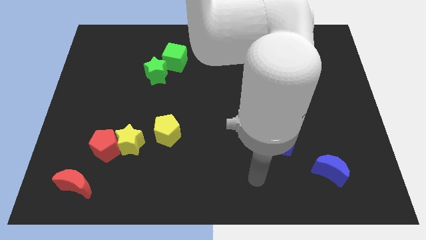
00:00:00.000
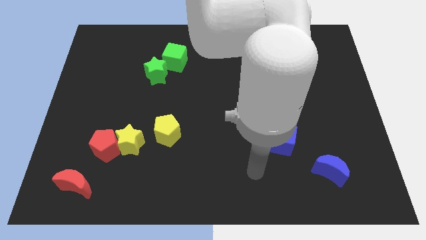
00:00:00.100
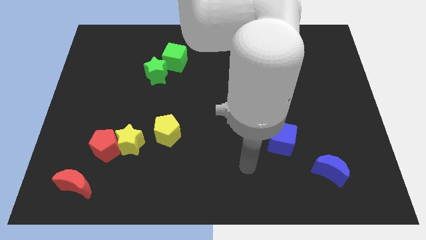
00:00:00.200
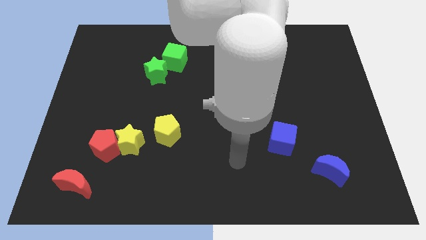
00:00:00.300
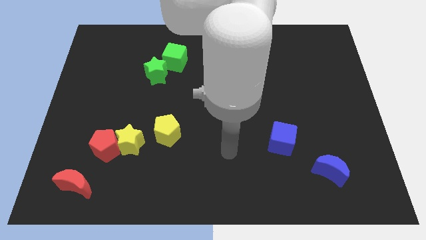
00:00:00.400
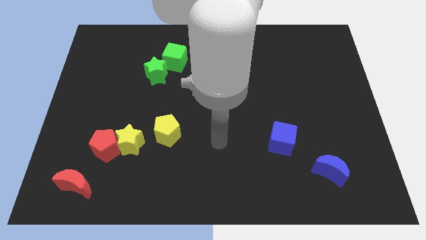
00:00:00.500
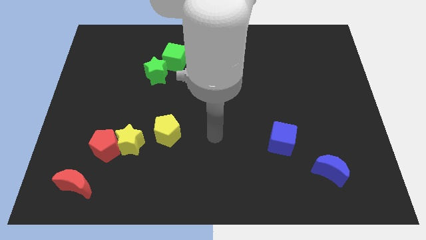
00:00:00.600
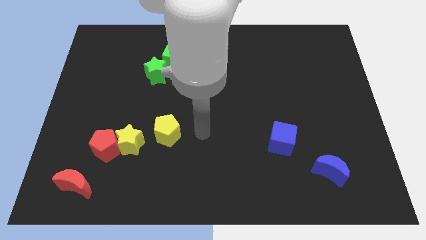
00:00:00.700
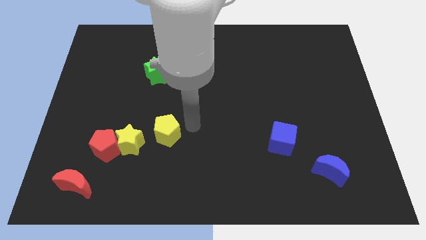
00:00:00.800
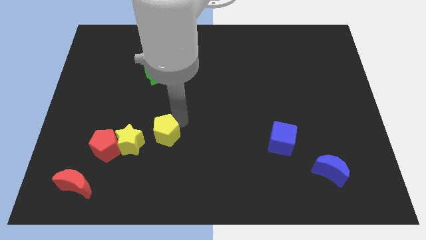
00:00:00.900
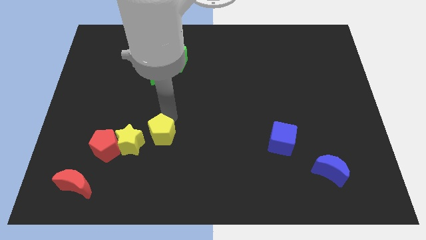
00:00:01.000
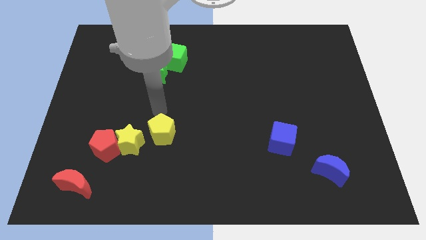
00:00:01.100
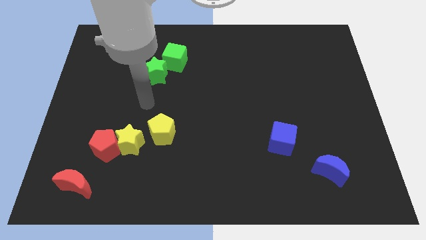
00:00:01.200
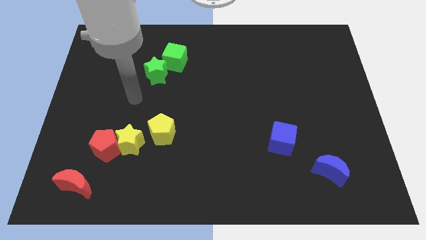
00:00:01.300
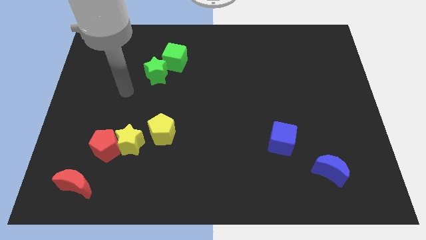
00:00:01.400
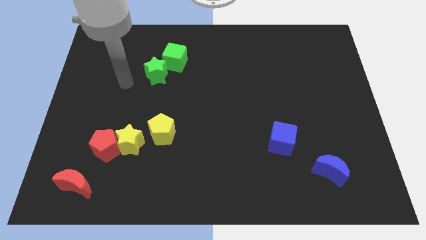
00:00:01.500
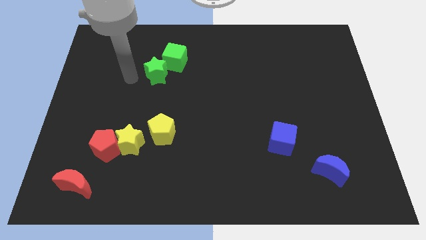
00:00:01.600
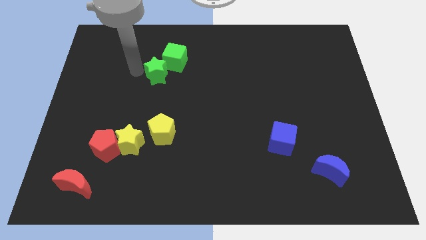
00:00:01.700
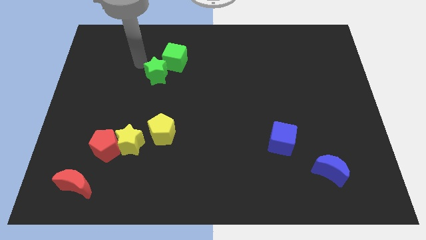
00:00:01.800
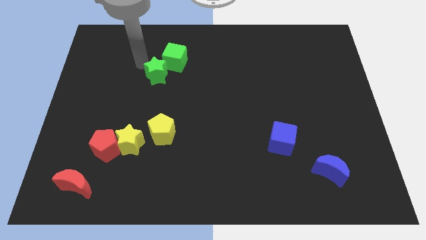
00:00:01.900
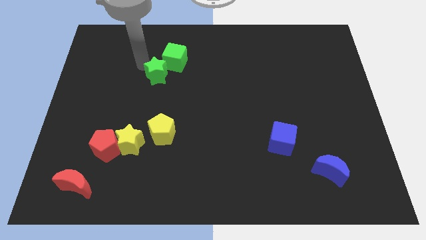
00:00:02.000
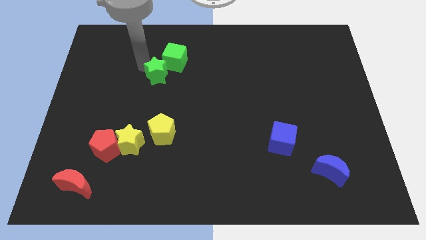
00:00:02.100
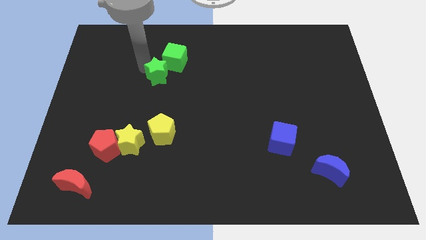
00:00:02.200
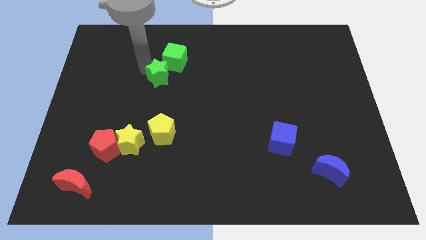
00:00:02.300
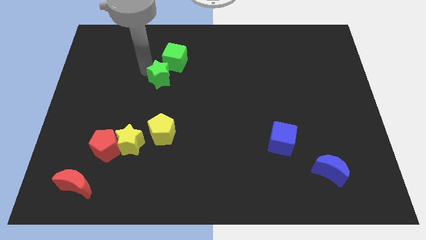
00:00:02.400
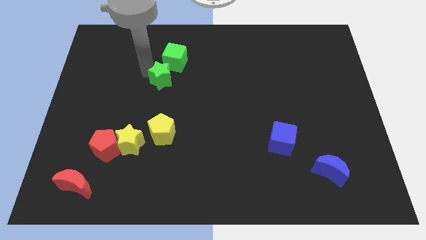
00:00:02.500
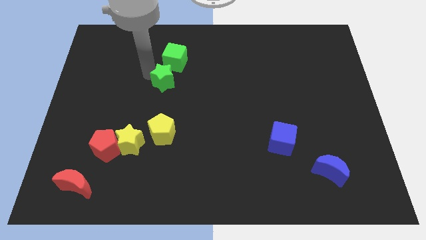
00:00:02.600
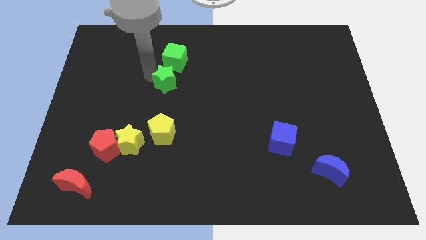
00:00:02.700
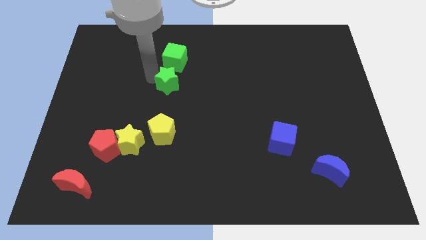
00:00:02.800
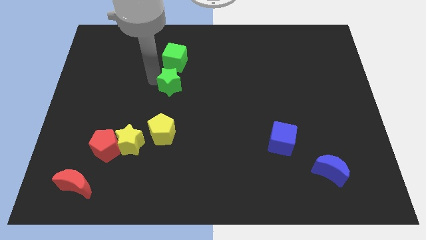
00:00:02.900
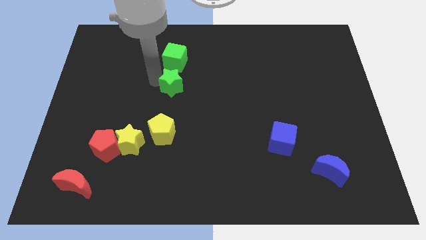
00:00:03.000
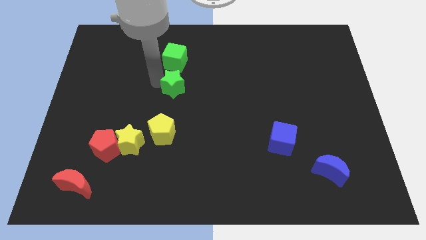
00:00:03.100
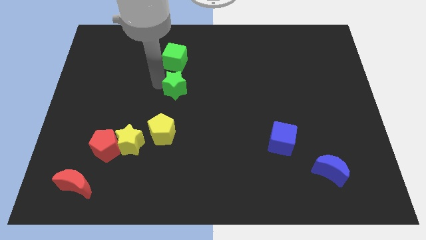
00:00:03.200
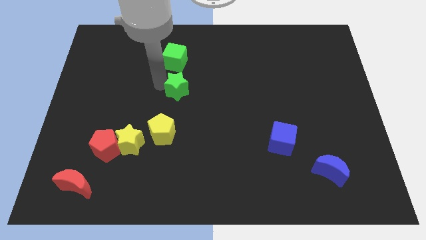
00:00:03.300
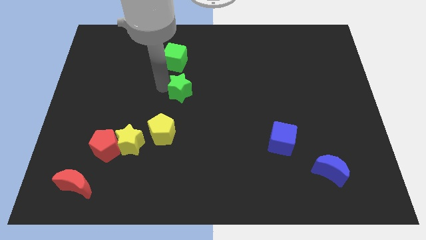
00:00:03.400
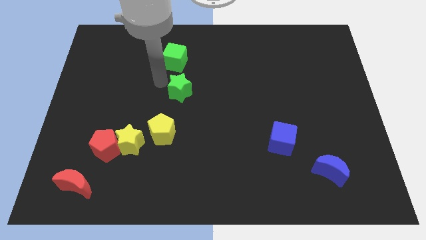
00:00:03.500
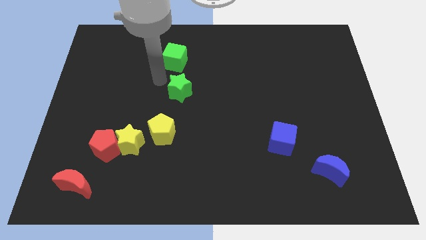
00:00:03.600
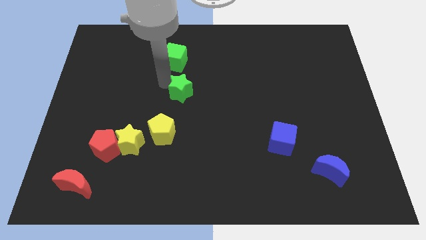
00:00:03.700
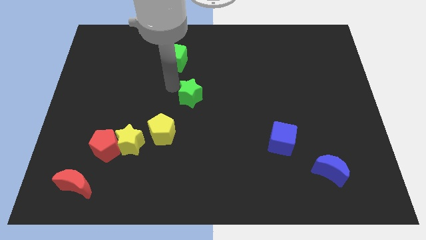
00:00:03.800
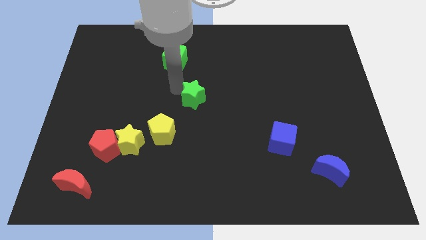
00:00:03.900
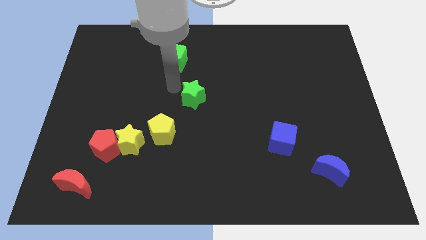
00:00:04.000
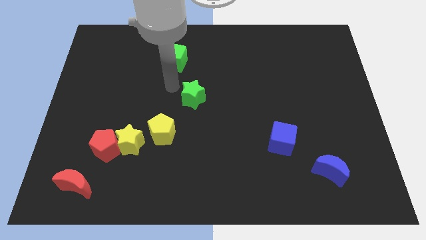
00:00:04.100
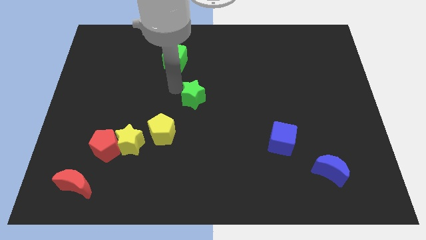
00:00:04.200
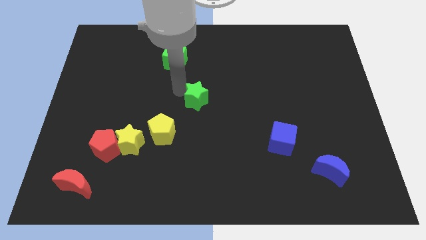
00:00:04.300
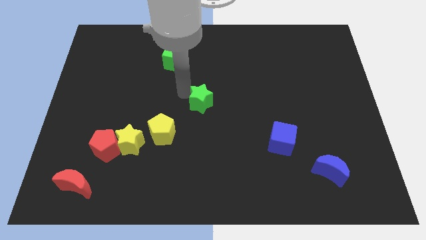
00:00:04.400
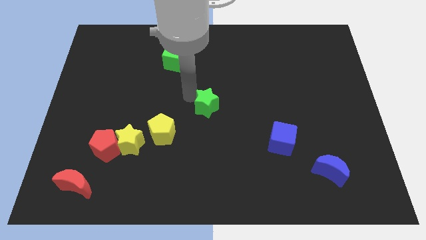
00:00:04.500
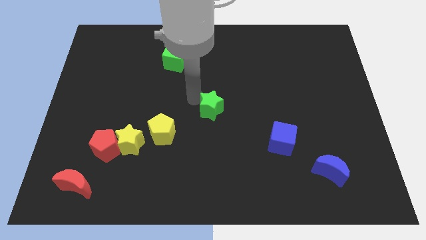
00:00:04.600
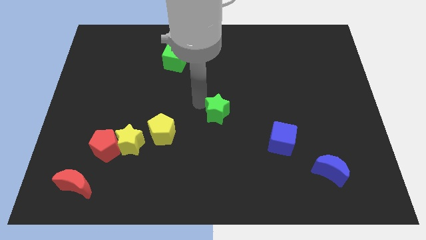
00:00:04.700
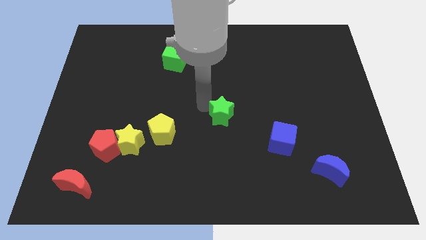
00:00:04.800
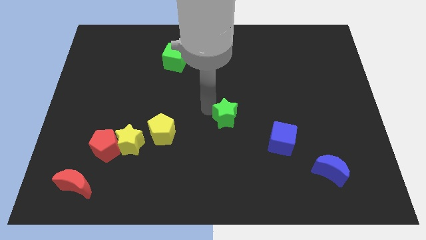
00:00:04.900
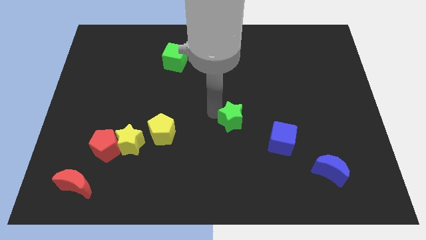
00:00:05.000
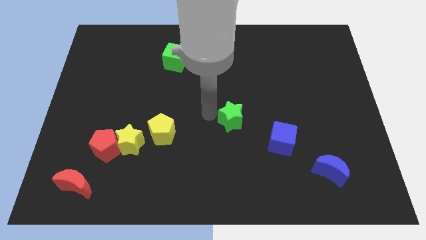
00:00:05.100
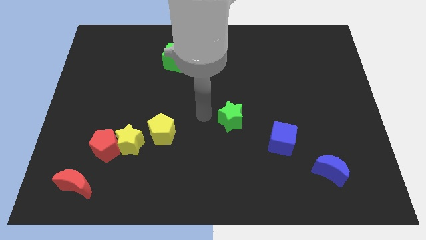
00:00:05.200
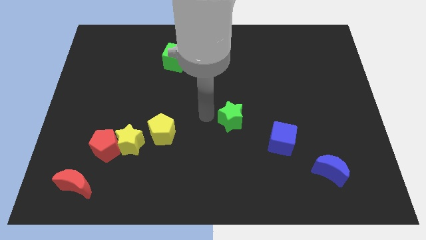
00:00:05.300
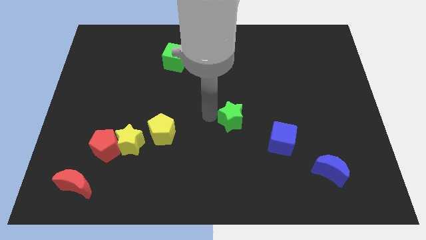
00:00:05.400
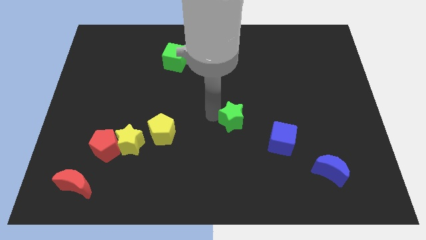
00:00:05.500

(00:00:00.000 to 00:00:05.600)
push the green star diagonally up and to the left of the blue cube

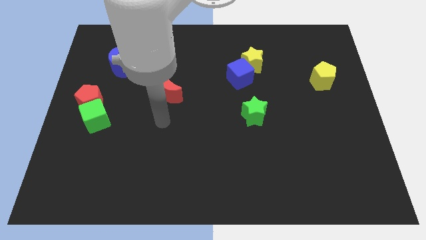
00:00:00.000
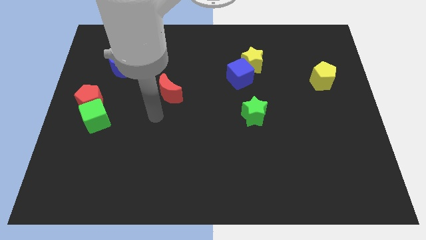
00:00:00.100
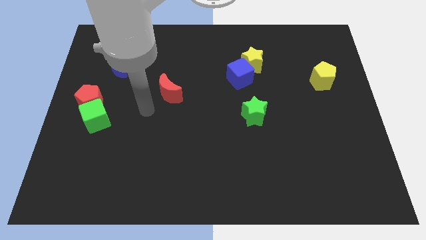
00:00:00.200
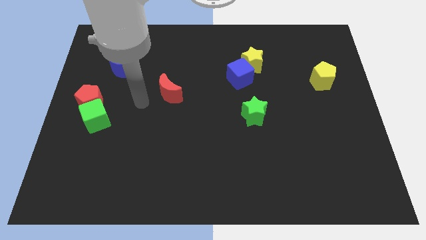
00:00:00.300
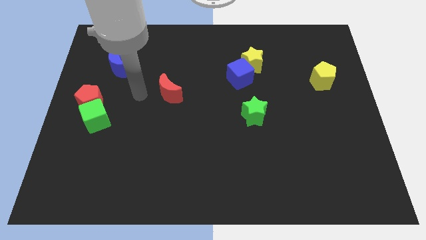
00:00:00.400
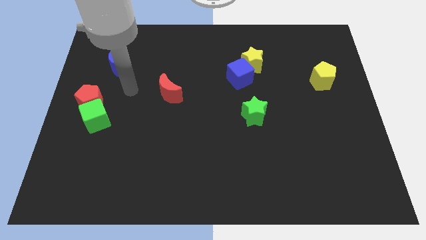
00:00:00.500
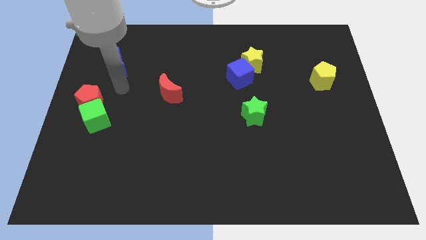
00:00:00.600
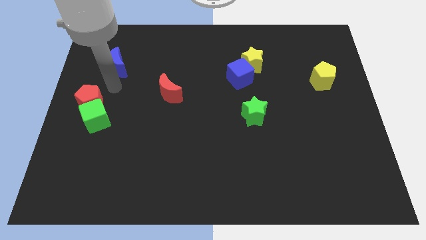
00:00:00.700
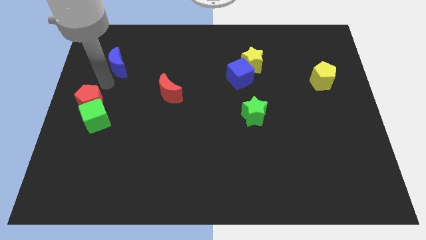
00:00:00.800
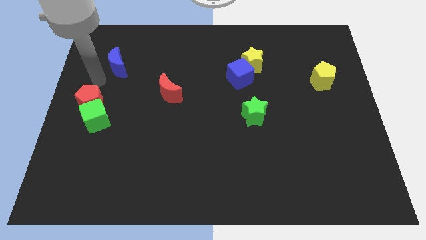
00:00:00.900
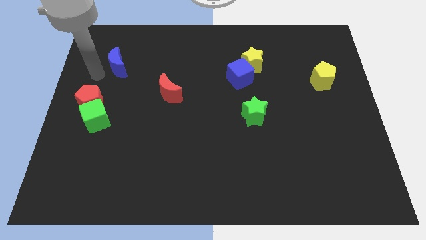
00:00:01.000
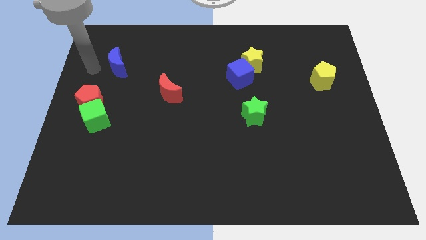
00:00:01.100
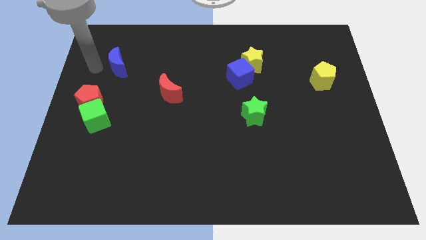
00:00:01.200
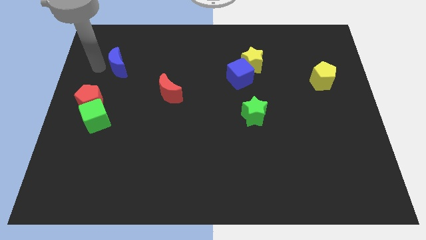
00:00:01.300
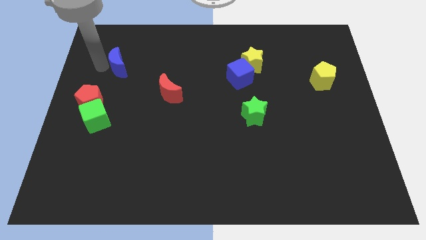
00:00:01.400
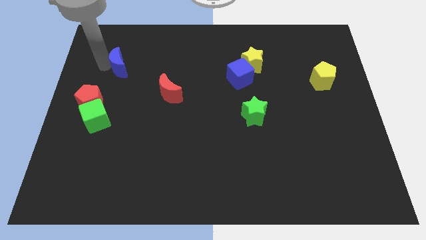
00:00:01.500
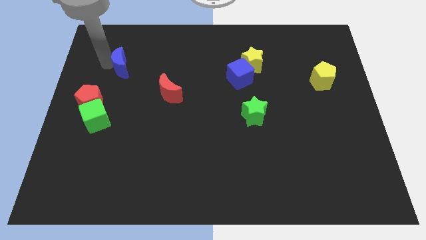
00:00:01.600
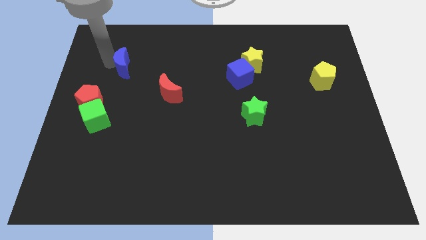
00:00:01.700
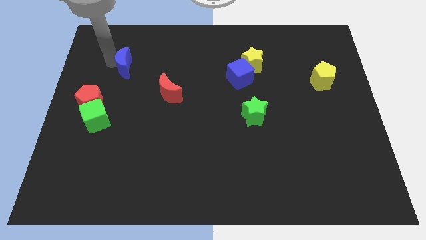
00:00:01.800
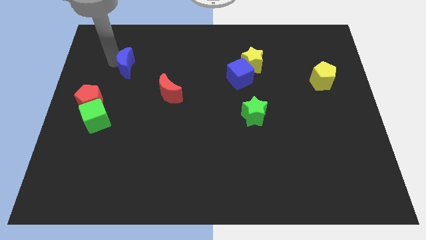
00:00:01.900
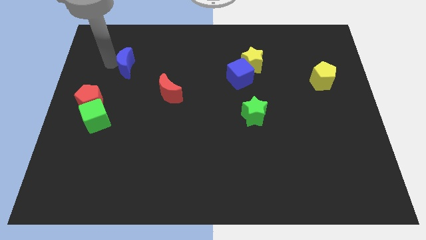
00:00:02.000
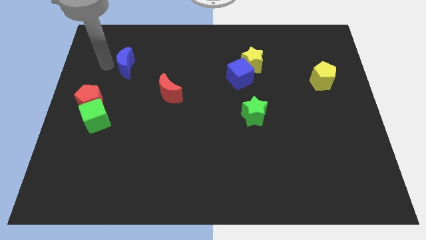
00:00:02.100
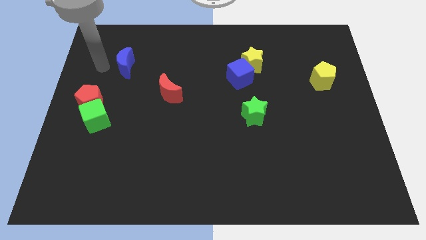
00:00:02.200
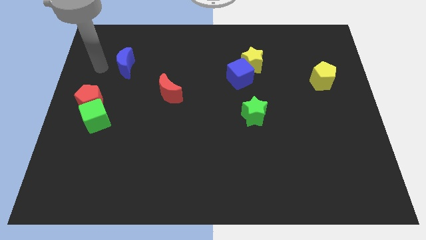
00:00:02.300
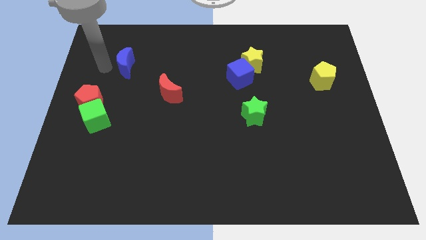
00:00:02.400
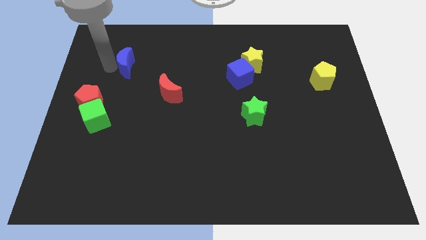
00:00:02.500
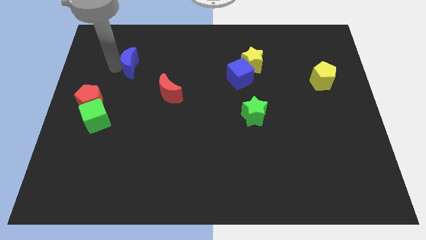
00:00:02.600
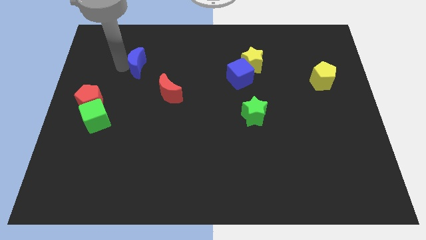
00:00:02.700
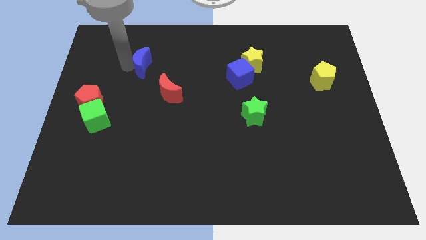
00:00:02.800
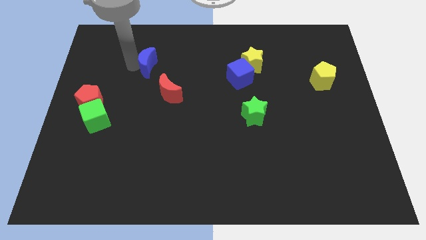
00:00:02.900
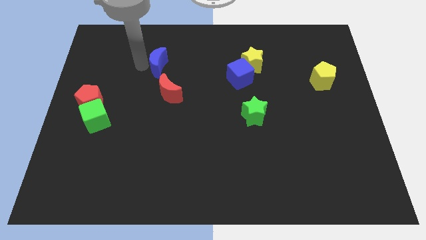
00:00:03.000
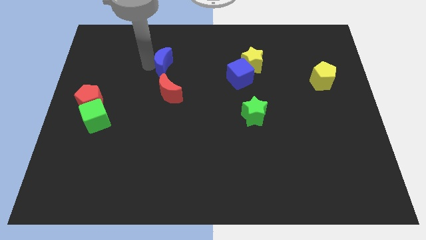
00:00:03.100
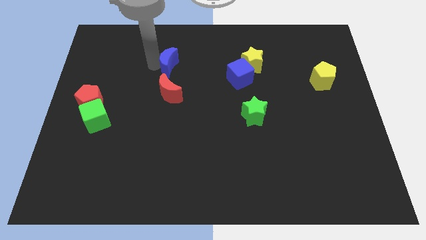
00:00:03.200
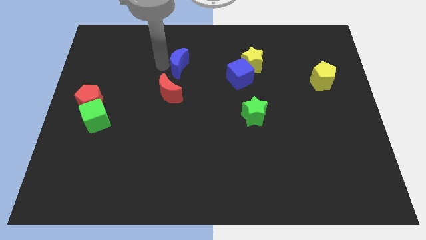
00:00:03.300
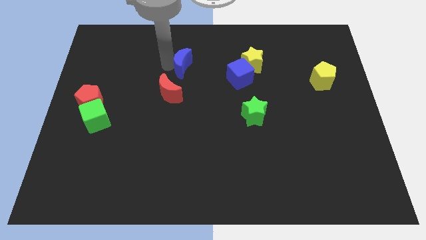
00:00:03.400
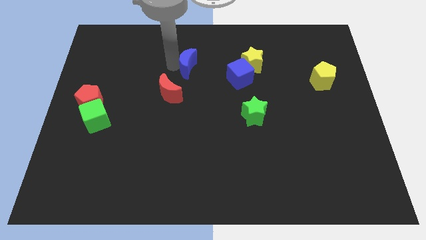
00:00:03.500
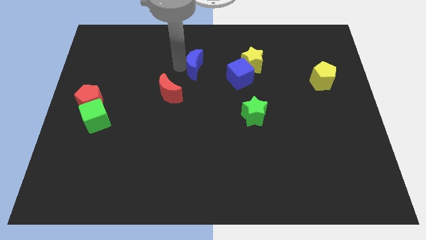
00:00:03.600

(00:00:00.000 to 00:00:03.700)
put the blue moon to the left of the yellow star
